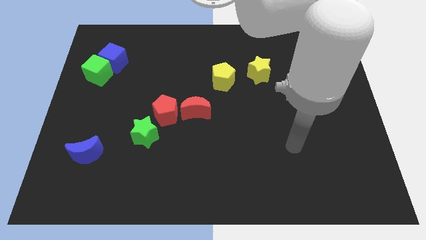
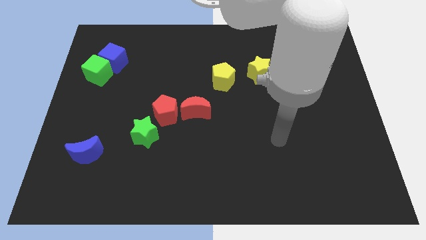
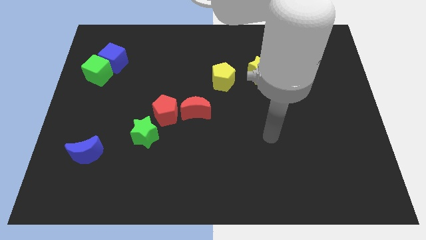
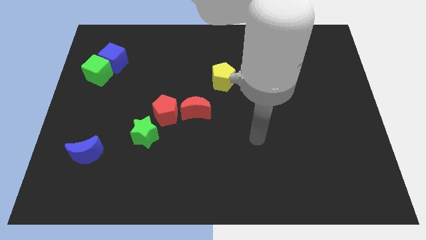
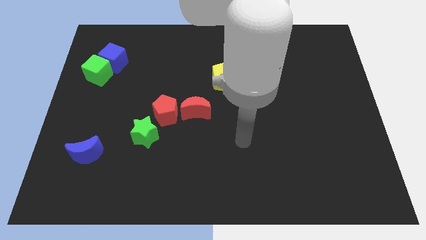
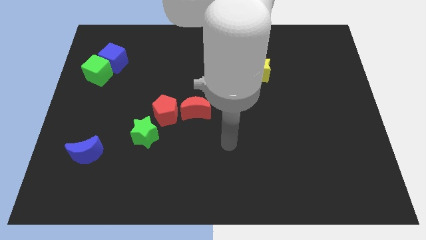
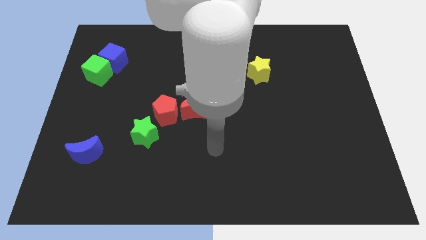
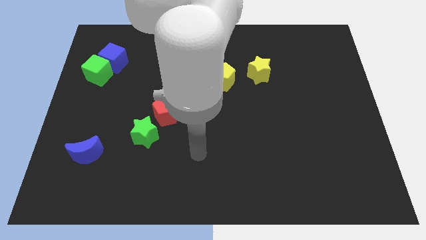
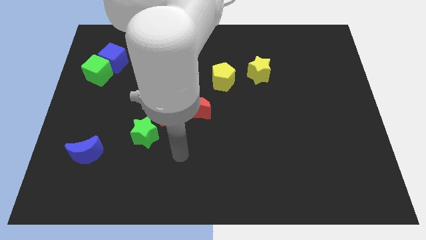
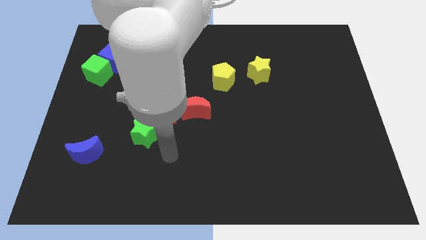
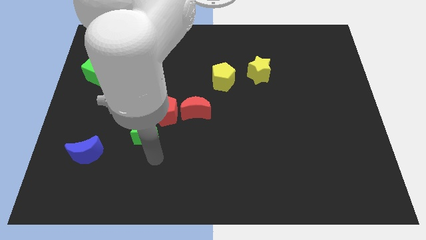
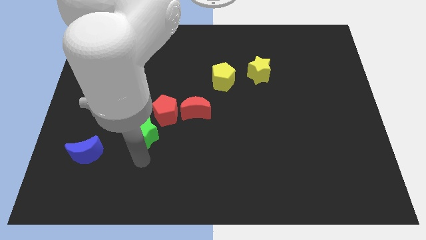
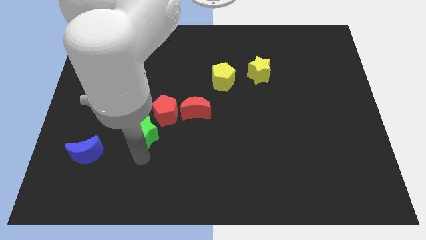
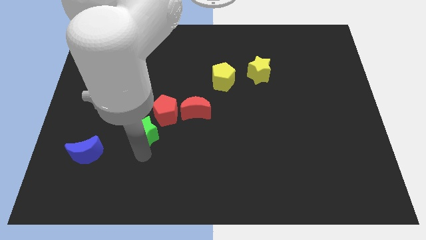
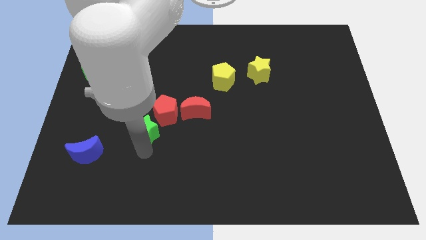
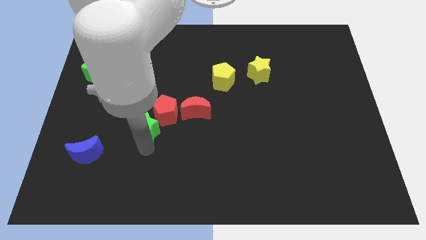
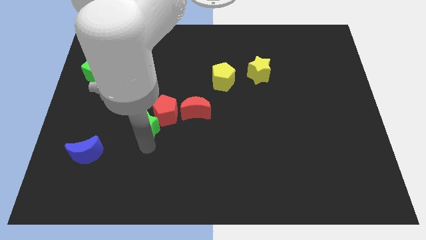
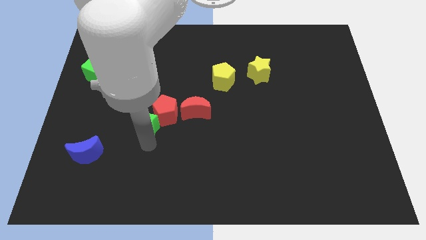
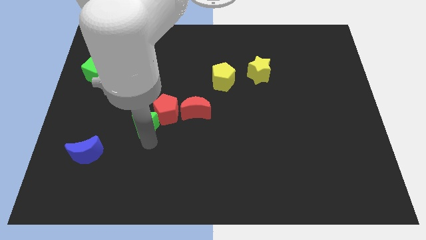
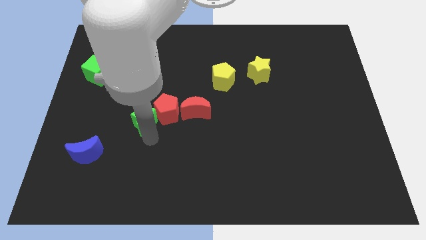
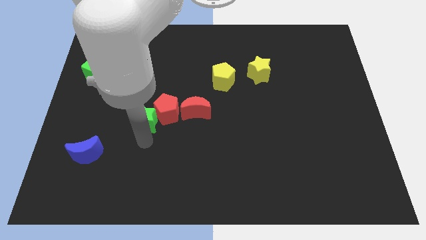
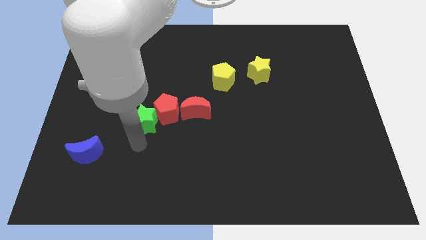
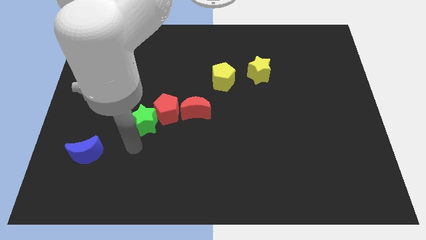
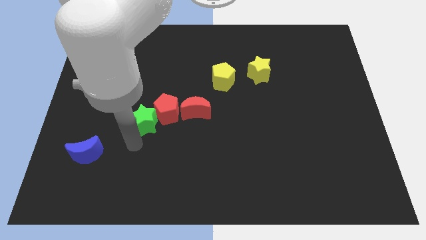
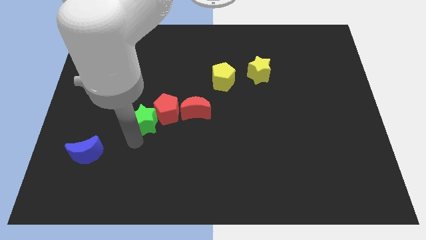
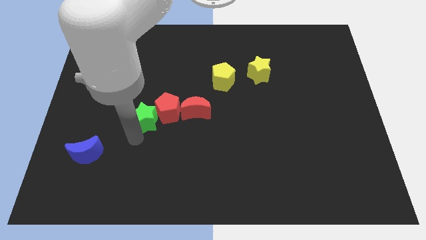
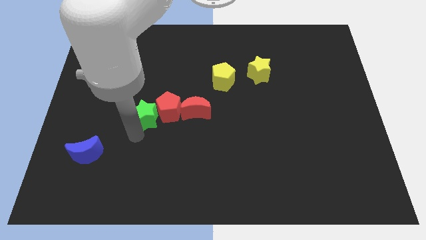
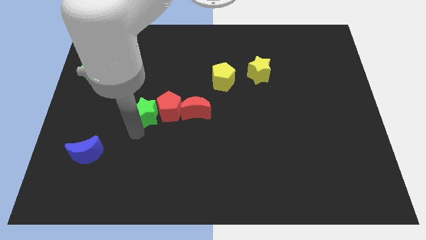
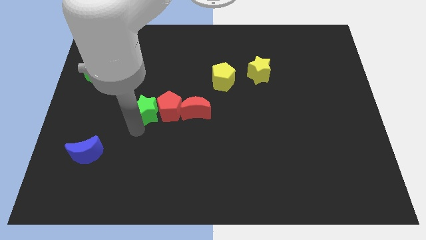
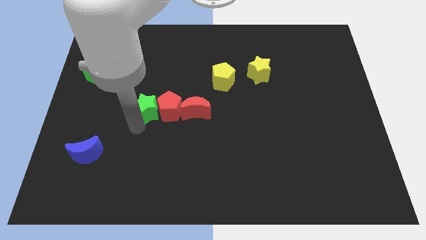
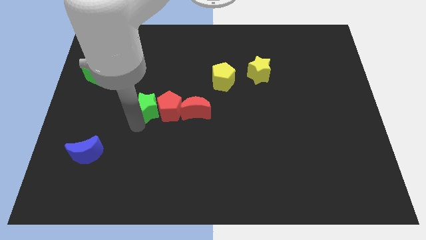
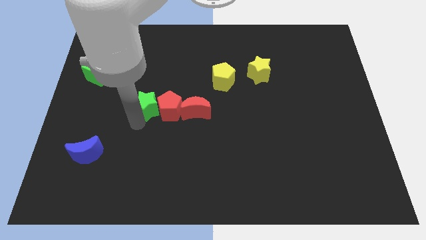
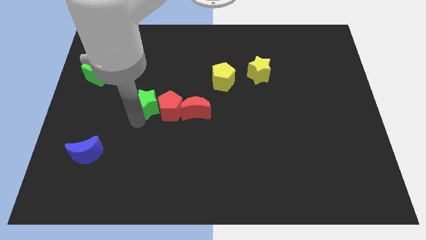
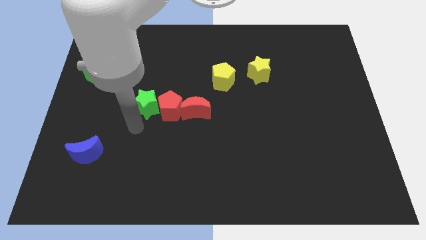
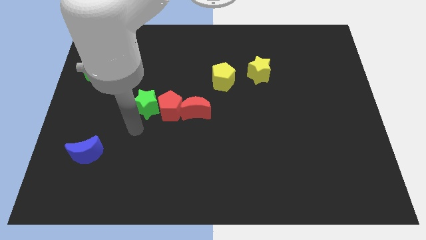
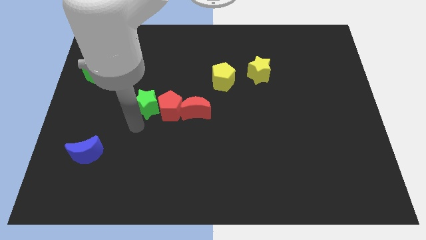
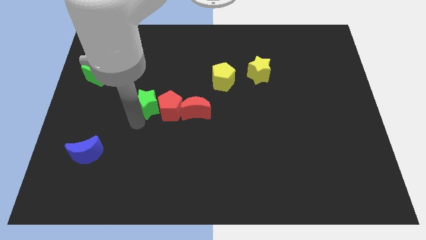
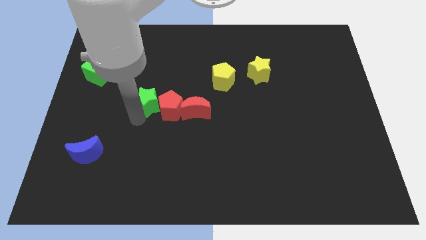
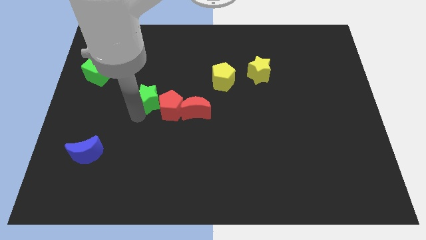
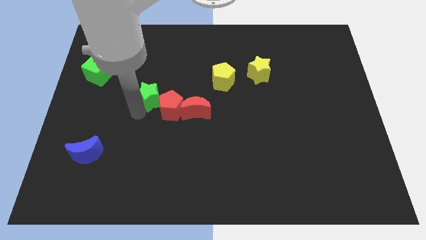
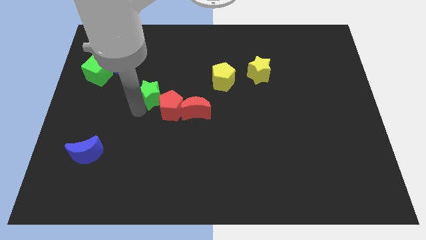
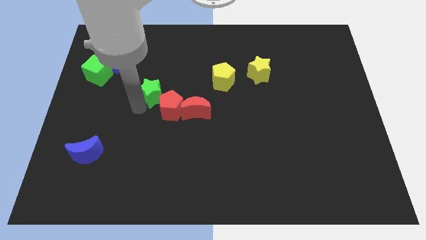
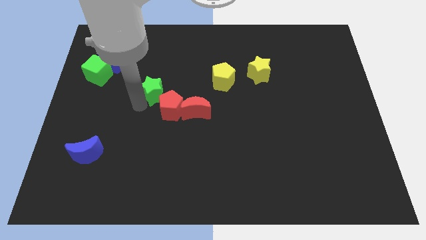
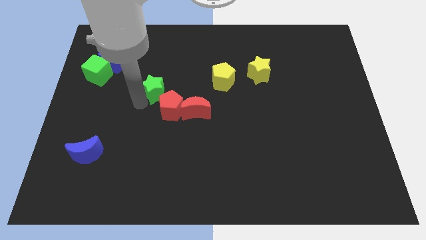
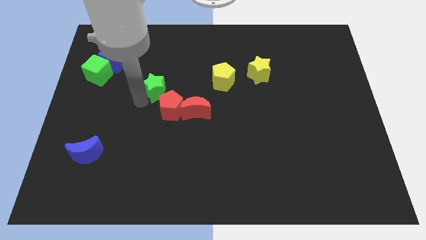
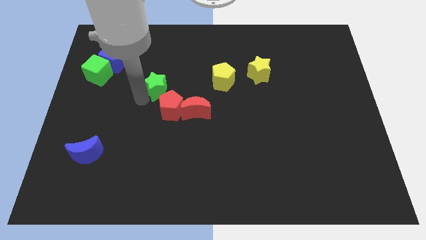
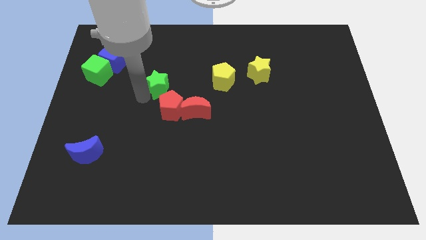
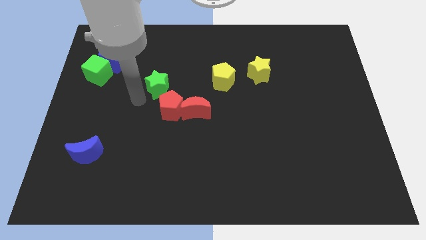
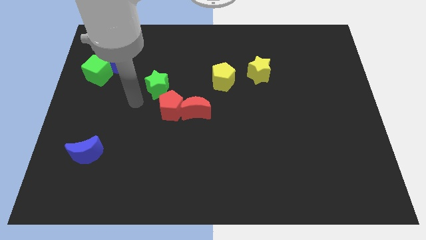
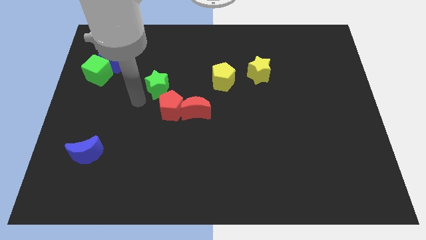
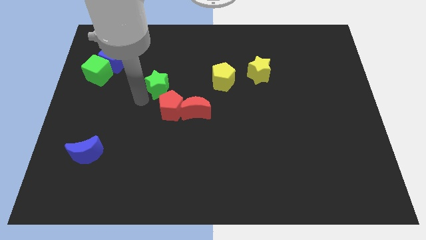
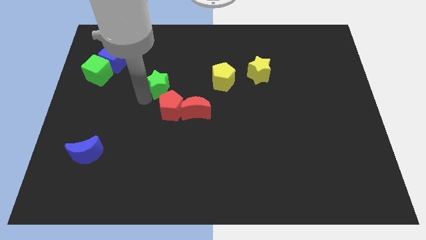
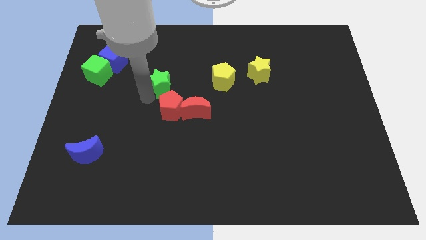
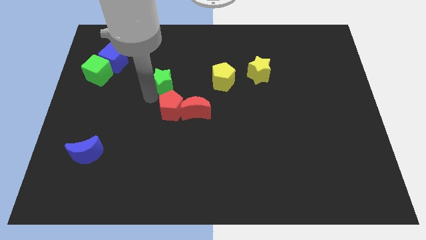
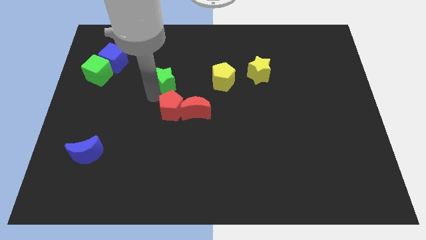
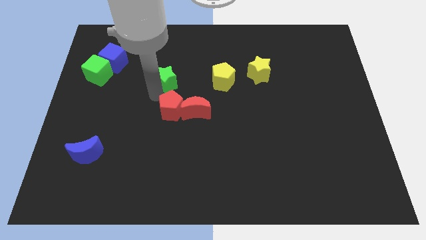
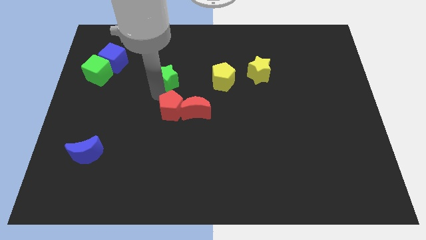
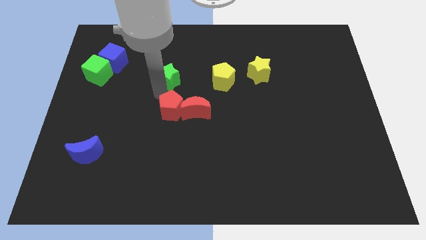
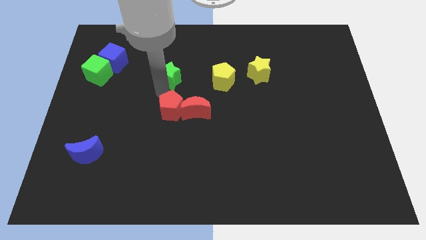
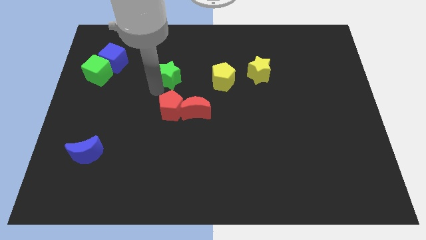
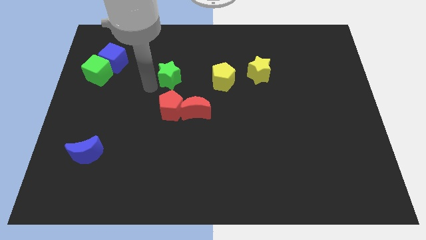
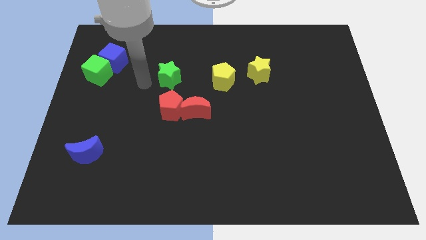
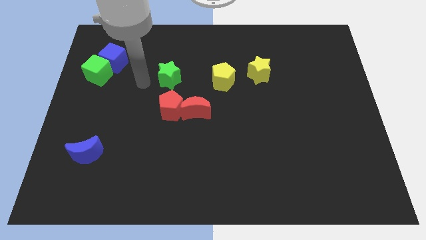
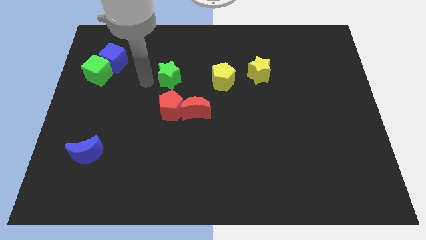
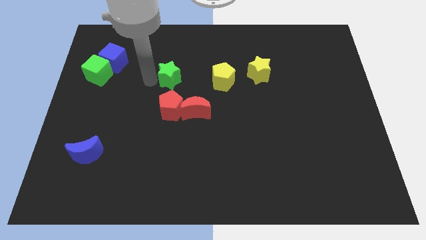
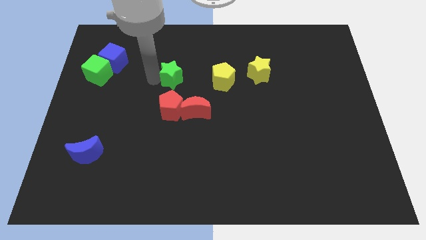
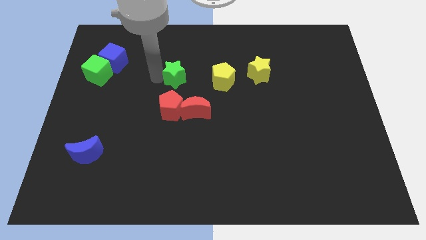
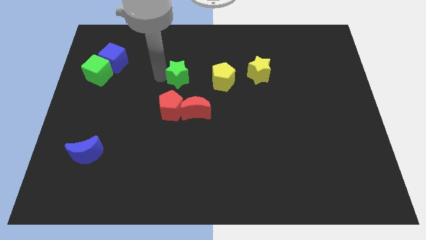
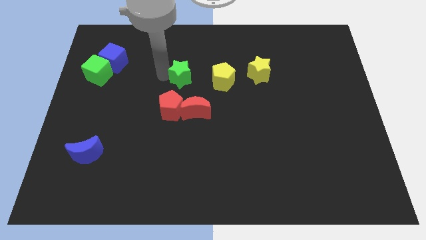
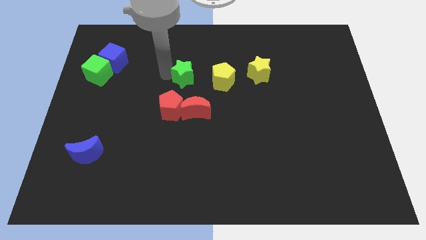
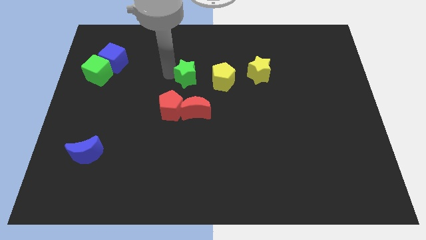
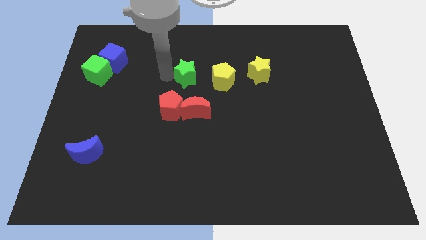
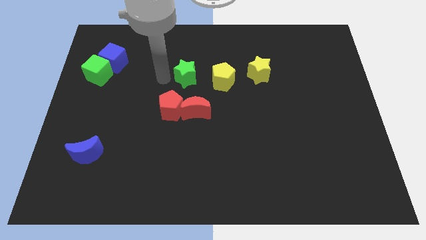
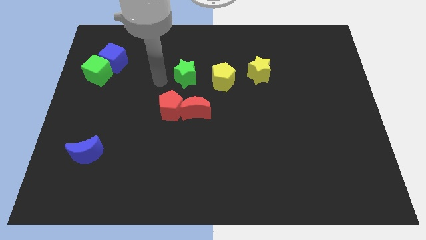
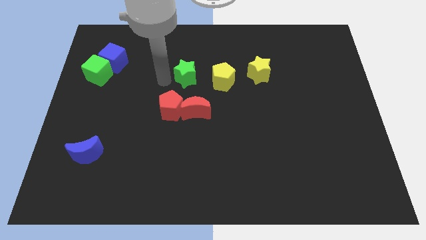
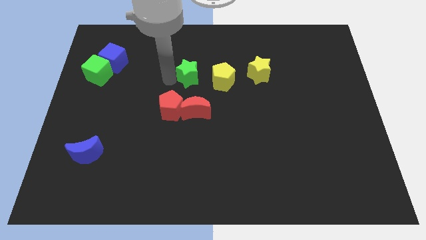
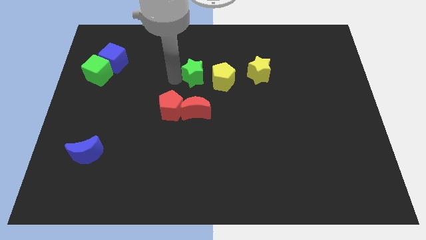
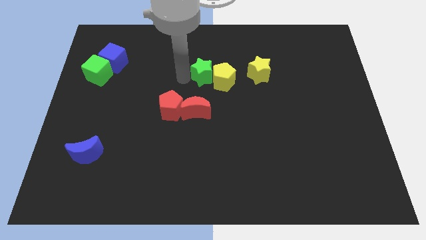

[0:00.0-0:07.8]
push the green star diagonally upwards and right

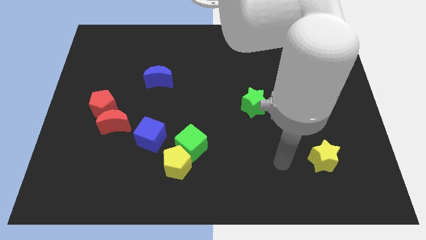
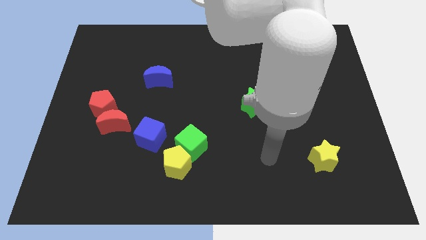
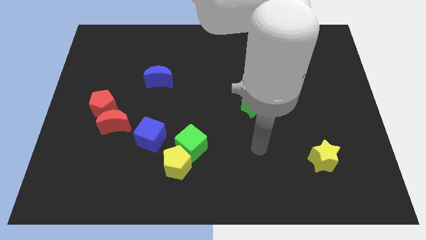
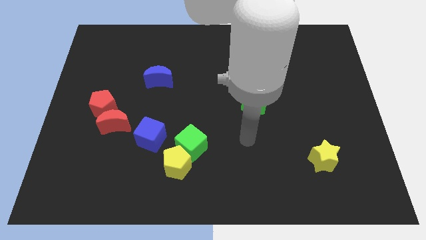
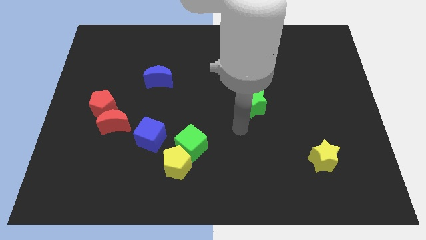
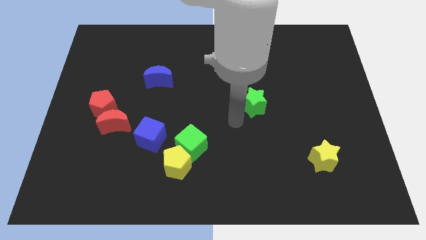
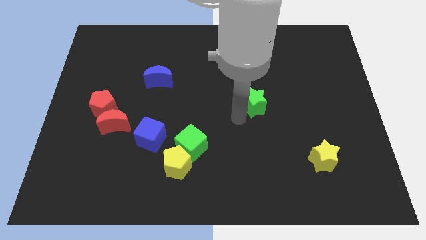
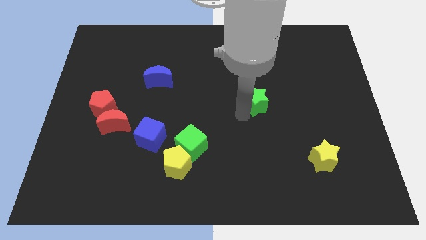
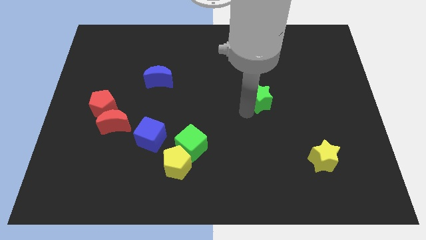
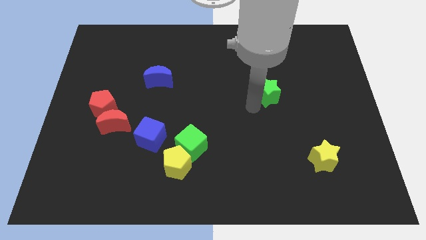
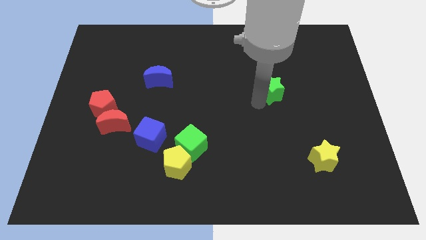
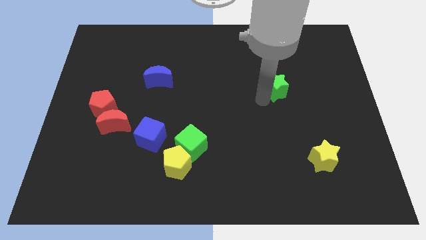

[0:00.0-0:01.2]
move the green star somewhat up and then to the right
